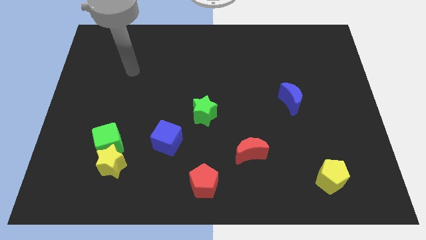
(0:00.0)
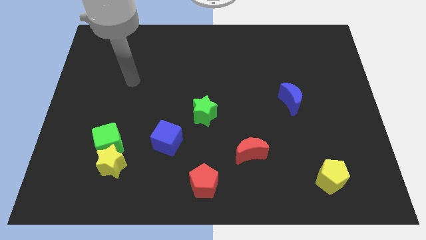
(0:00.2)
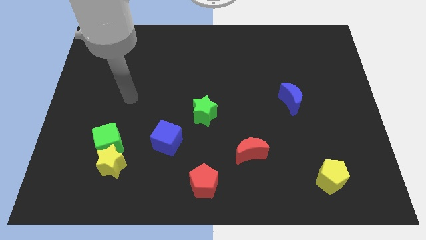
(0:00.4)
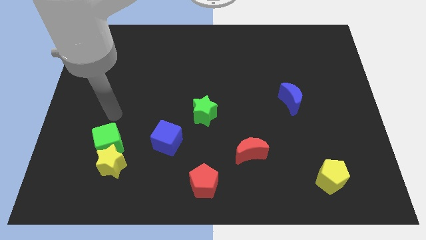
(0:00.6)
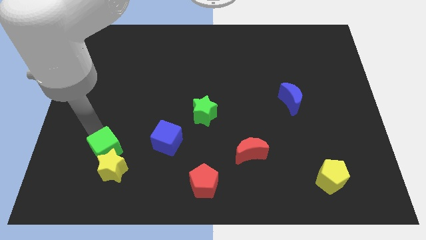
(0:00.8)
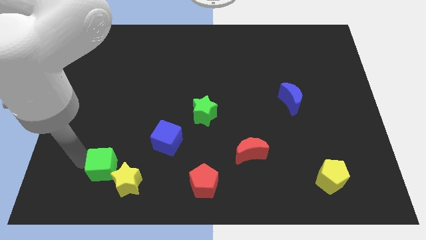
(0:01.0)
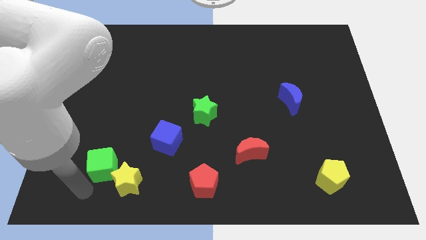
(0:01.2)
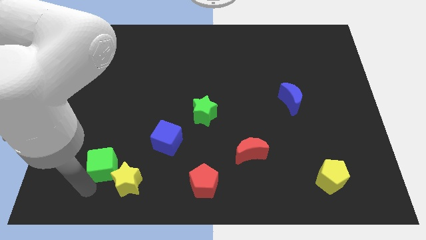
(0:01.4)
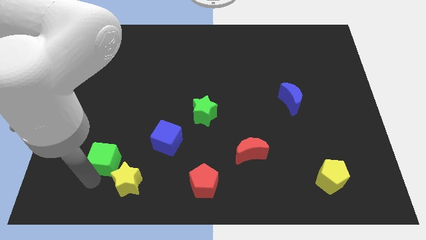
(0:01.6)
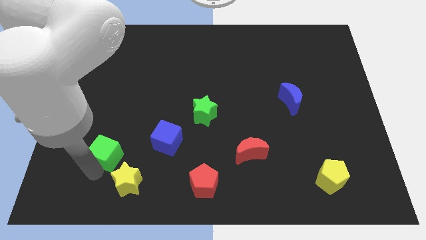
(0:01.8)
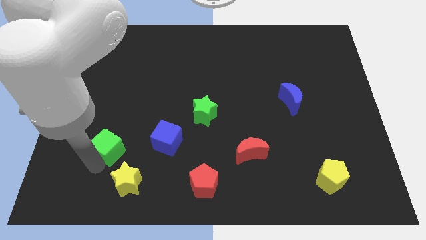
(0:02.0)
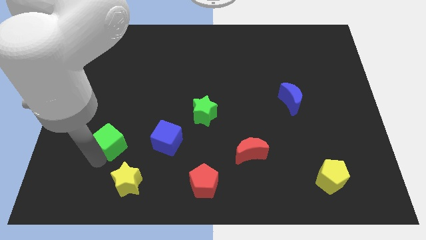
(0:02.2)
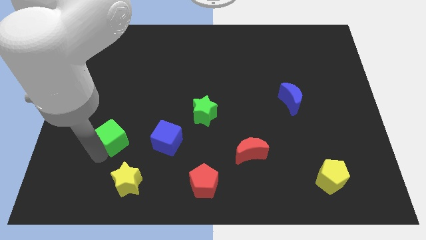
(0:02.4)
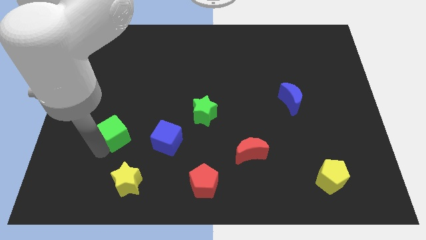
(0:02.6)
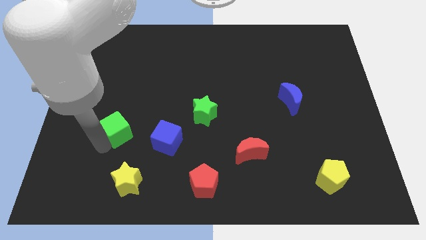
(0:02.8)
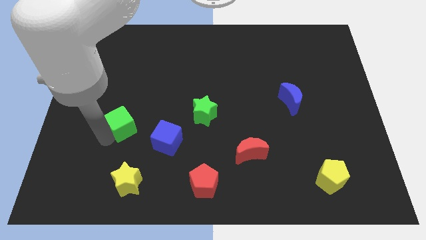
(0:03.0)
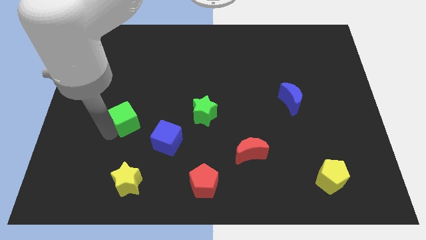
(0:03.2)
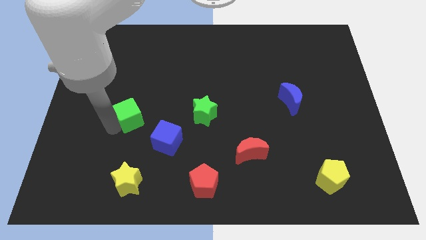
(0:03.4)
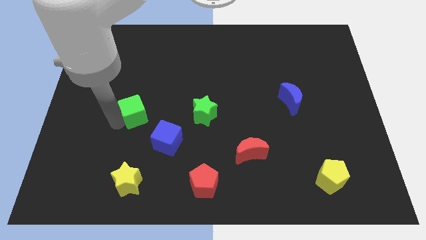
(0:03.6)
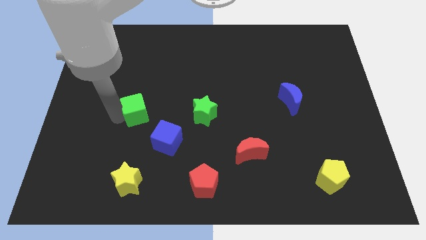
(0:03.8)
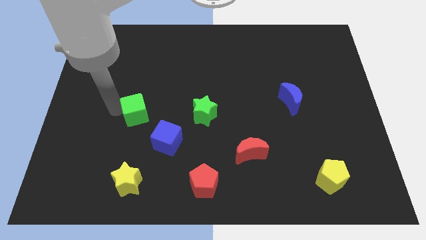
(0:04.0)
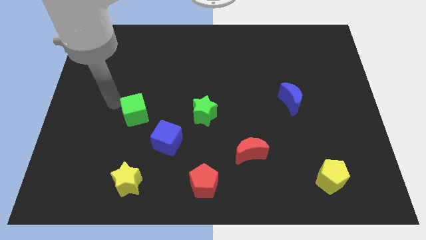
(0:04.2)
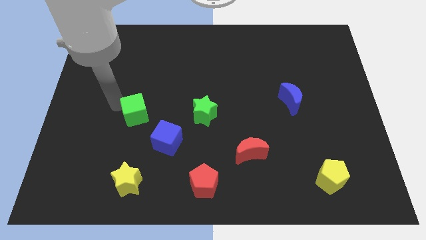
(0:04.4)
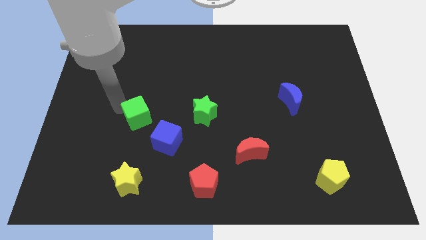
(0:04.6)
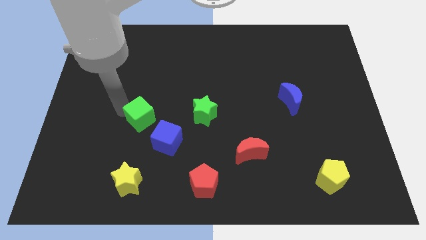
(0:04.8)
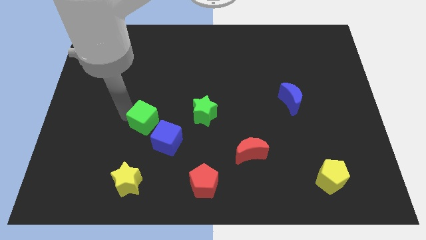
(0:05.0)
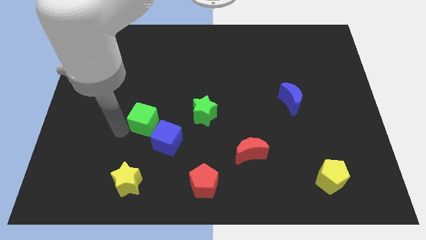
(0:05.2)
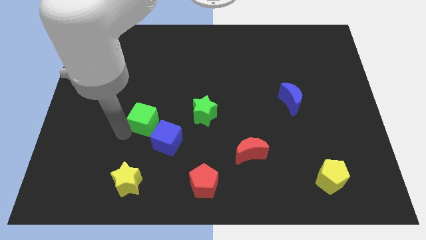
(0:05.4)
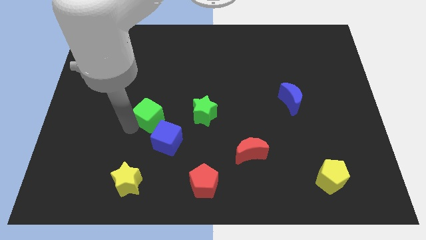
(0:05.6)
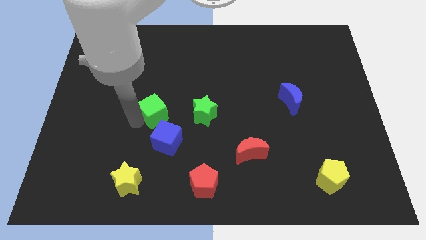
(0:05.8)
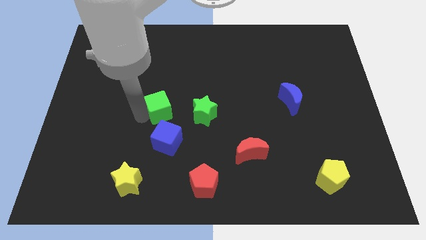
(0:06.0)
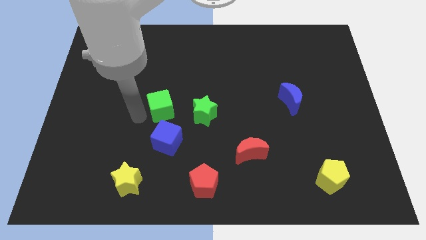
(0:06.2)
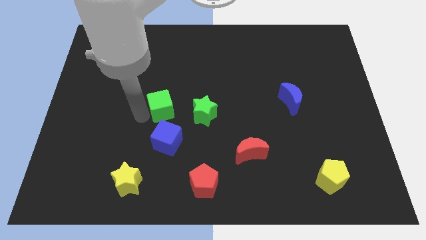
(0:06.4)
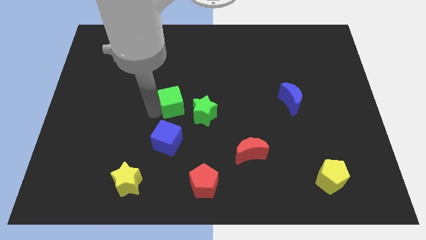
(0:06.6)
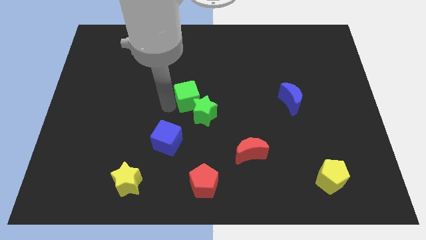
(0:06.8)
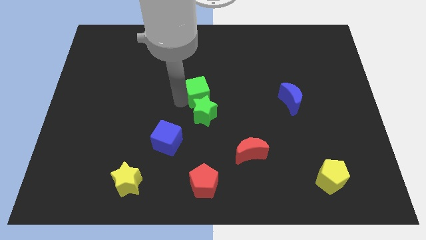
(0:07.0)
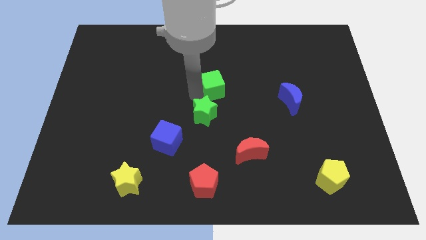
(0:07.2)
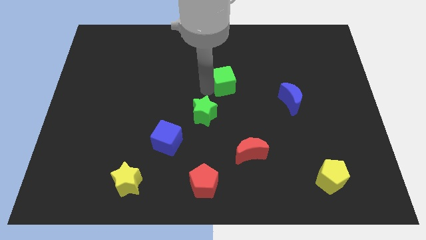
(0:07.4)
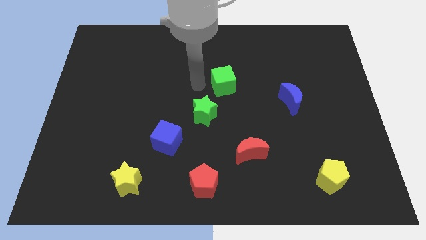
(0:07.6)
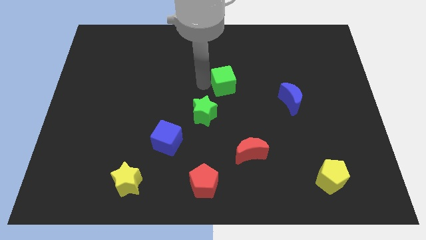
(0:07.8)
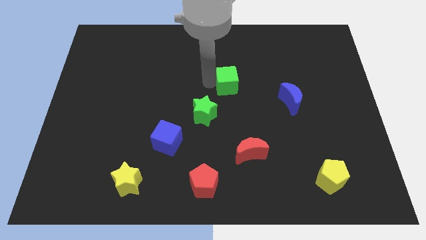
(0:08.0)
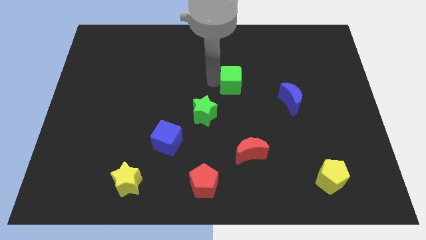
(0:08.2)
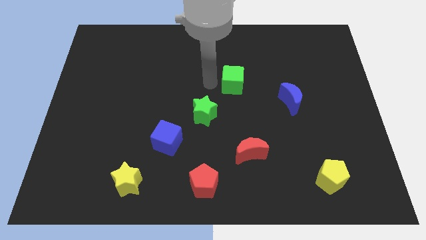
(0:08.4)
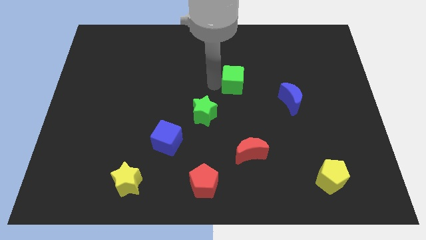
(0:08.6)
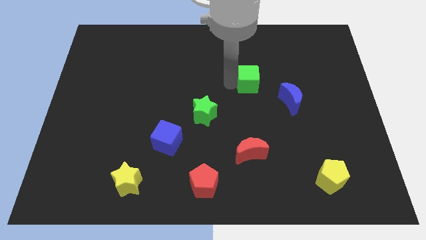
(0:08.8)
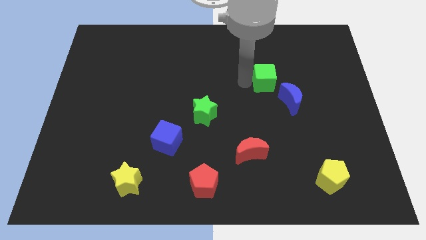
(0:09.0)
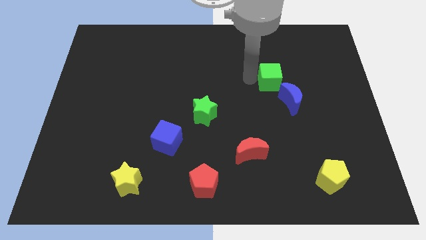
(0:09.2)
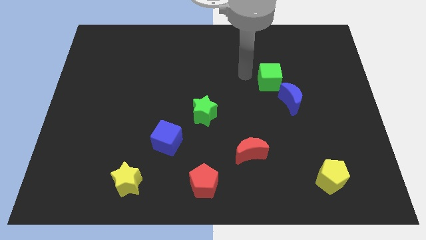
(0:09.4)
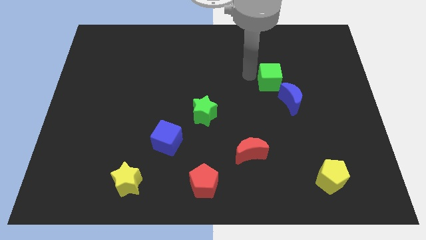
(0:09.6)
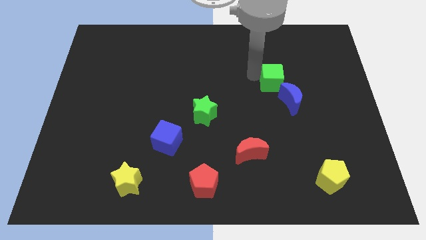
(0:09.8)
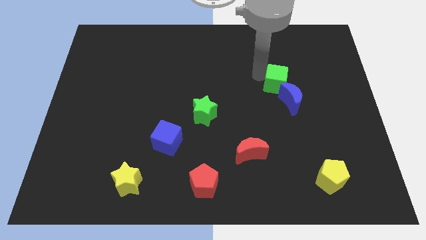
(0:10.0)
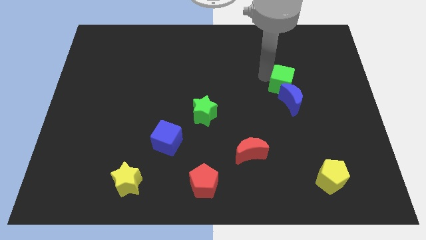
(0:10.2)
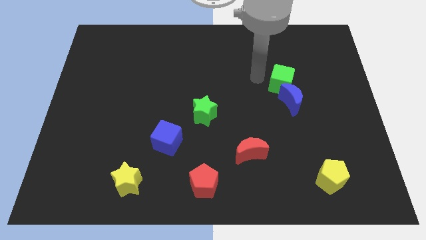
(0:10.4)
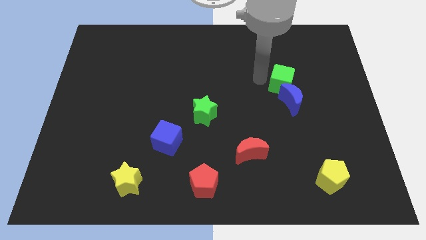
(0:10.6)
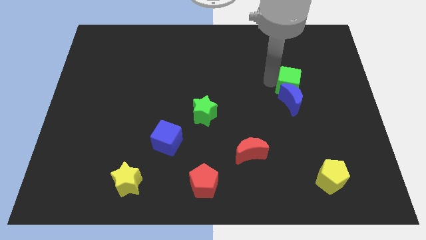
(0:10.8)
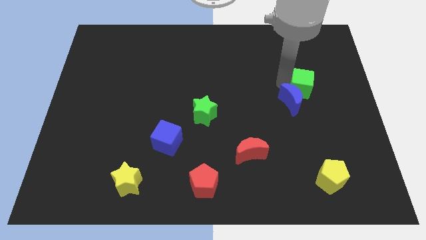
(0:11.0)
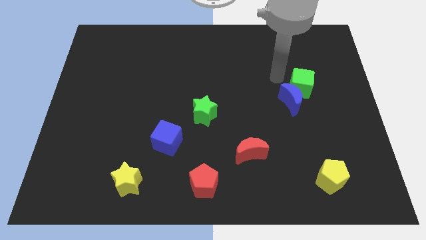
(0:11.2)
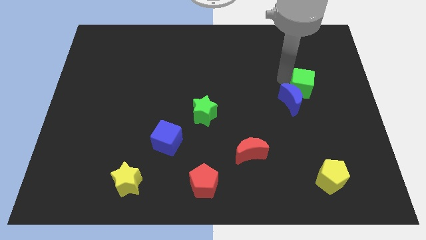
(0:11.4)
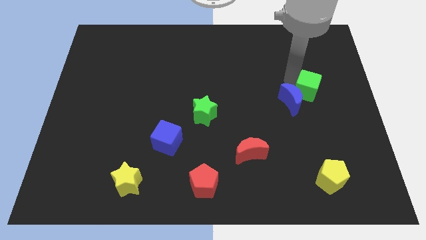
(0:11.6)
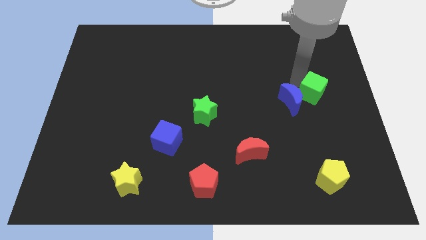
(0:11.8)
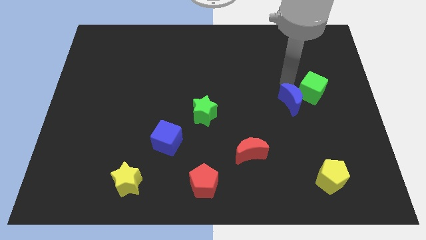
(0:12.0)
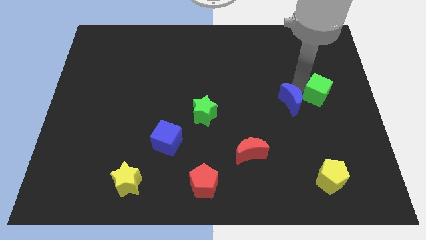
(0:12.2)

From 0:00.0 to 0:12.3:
push the green cube to the right side

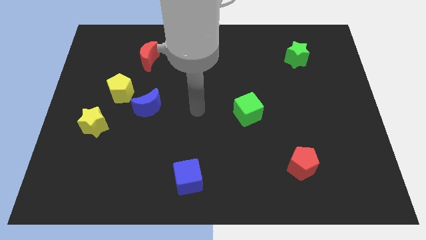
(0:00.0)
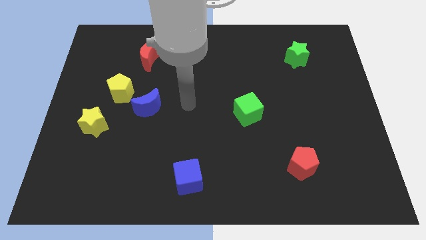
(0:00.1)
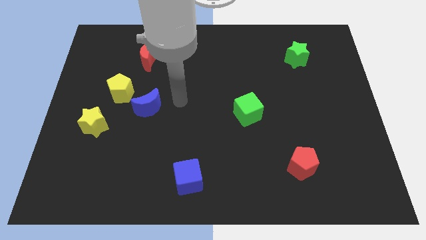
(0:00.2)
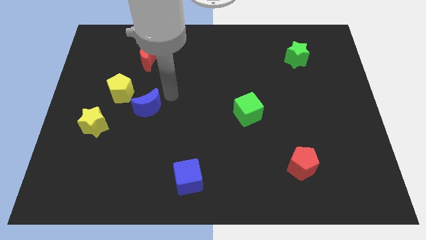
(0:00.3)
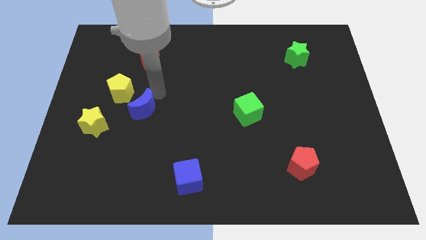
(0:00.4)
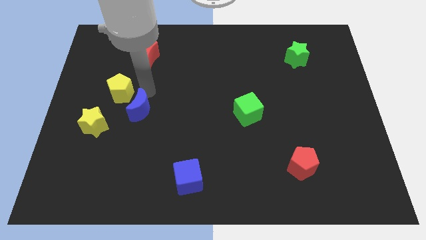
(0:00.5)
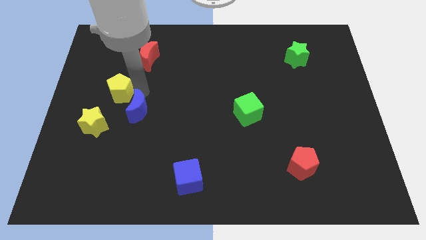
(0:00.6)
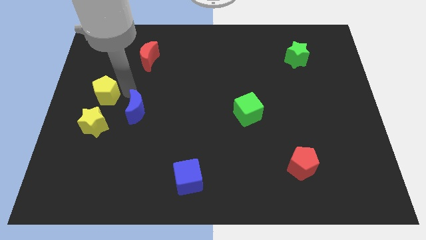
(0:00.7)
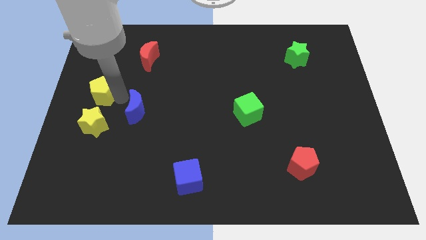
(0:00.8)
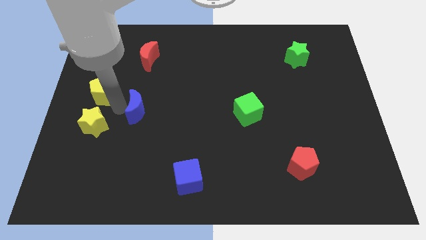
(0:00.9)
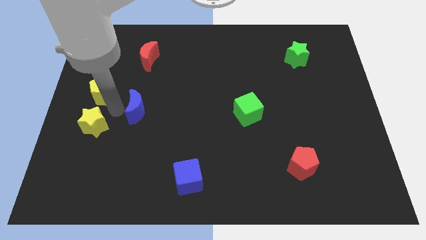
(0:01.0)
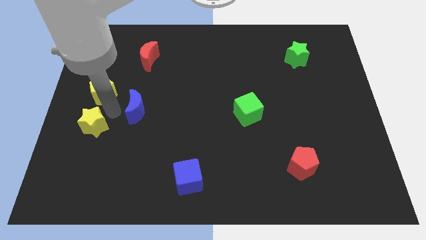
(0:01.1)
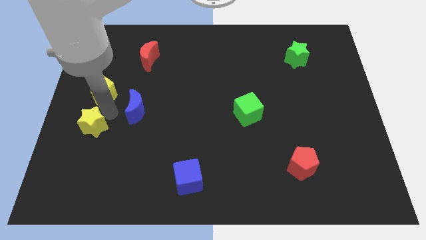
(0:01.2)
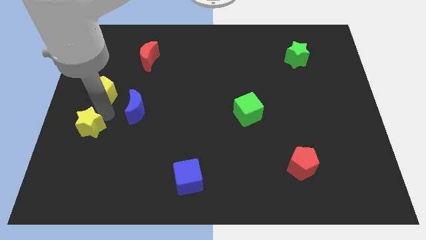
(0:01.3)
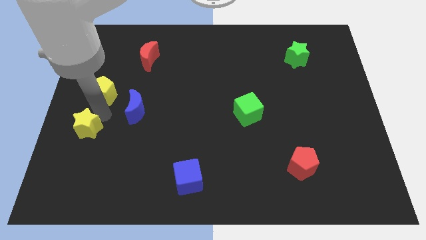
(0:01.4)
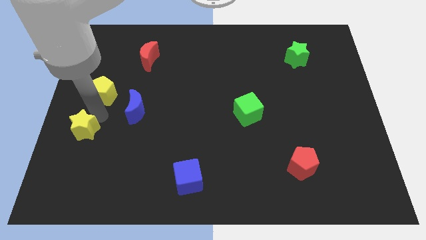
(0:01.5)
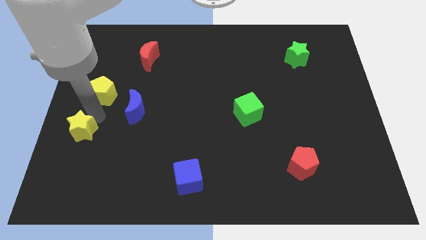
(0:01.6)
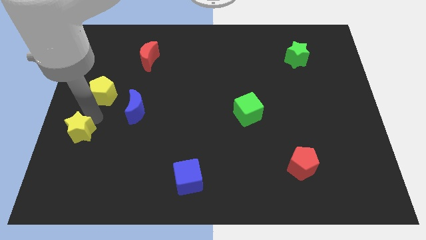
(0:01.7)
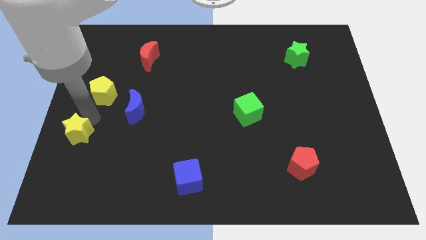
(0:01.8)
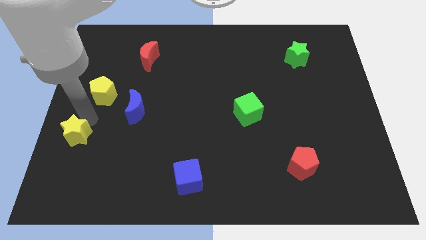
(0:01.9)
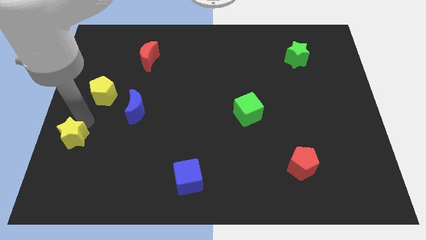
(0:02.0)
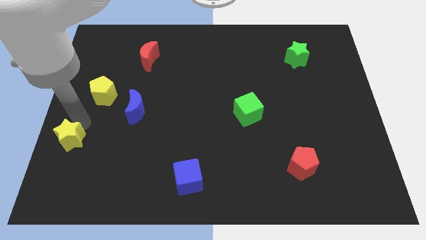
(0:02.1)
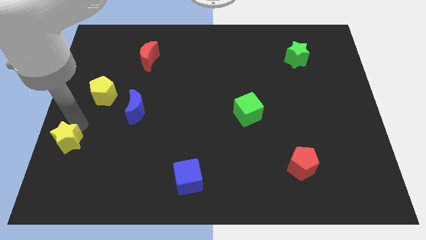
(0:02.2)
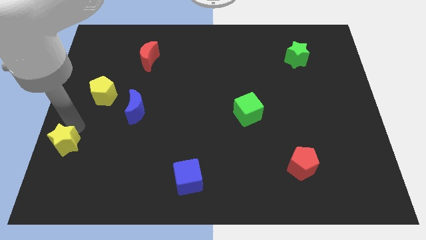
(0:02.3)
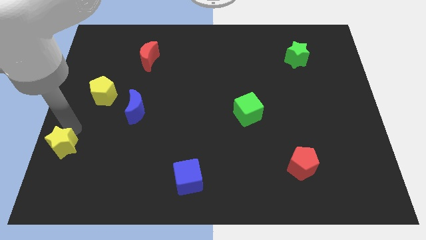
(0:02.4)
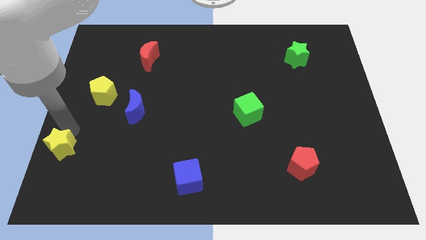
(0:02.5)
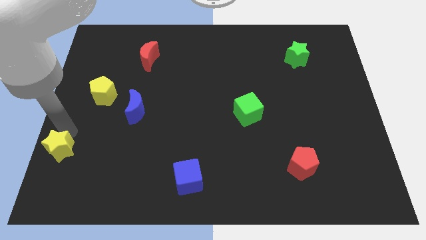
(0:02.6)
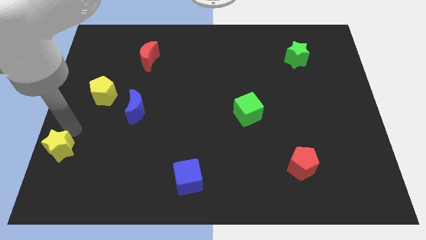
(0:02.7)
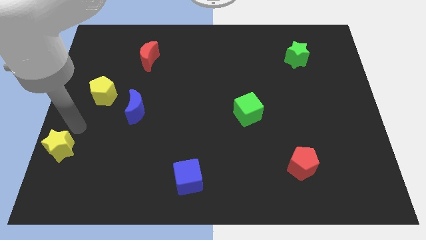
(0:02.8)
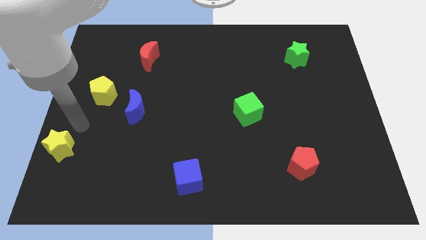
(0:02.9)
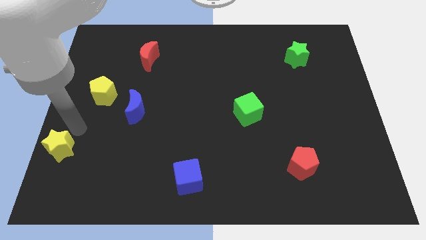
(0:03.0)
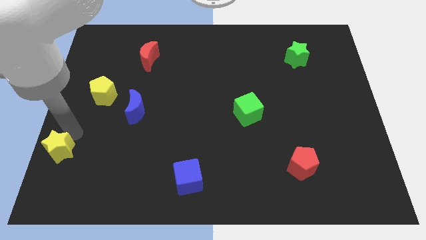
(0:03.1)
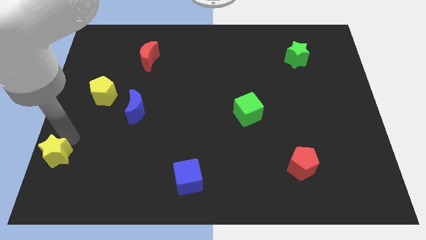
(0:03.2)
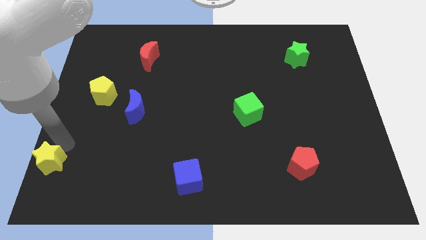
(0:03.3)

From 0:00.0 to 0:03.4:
slide the yellow star to the bottom left of the board
